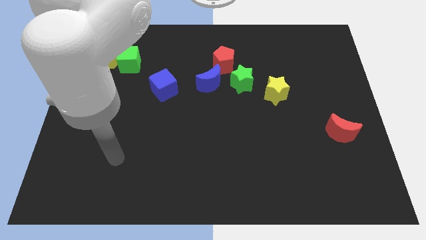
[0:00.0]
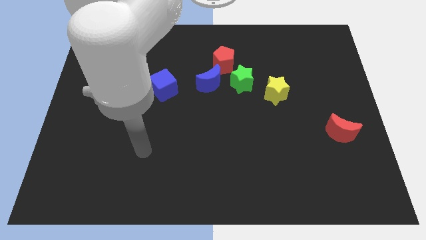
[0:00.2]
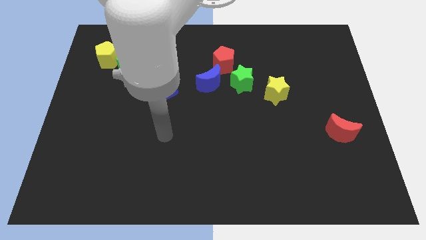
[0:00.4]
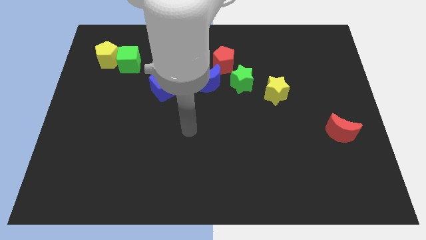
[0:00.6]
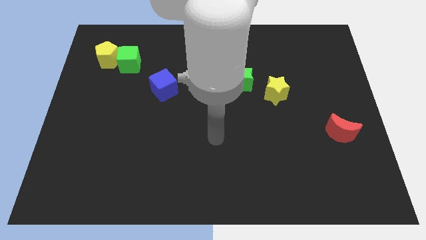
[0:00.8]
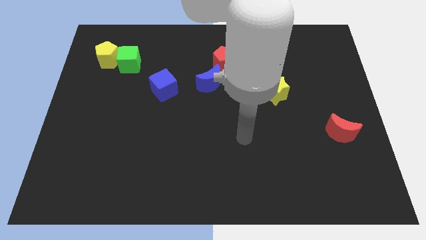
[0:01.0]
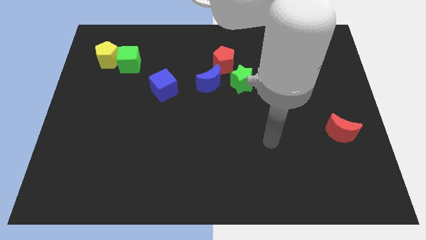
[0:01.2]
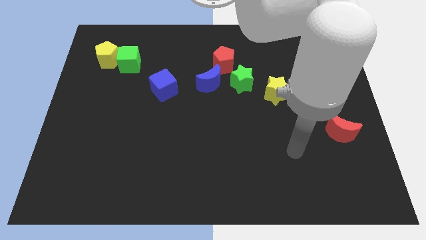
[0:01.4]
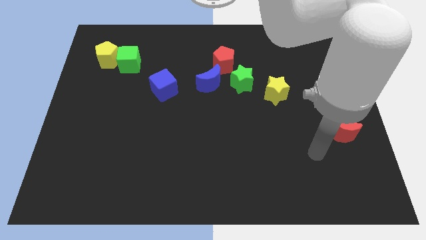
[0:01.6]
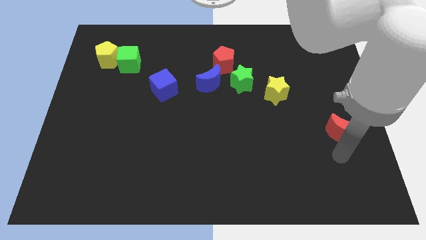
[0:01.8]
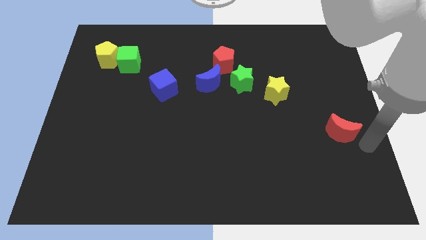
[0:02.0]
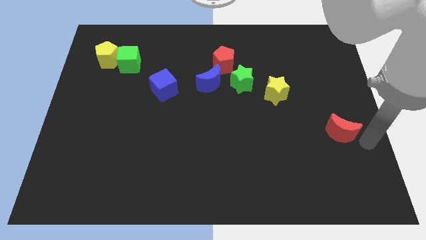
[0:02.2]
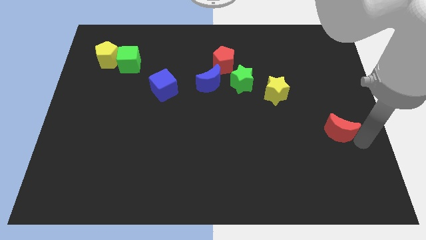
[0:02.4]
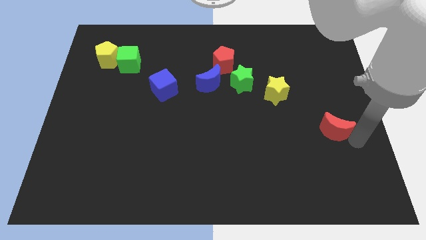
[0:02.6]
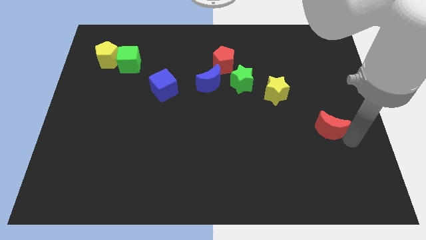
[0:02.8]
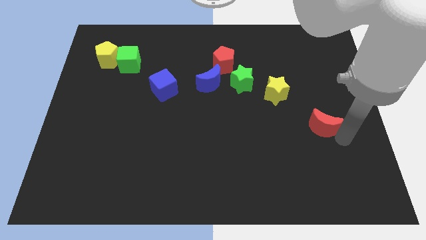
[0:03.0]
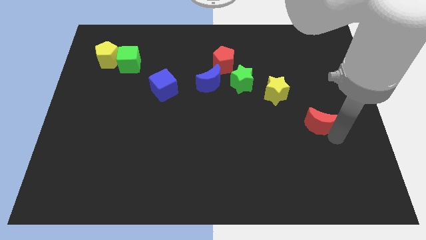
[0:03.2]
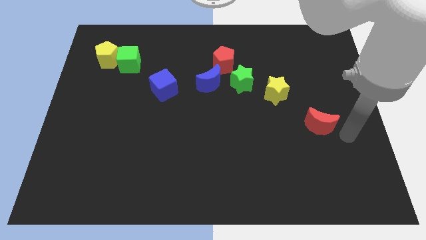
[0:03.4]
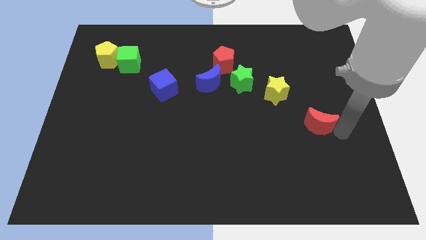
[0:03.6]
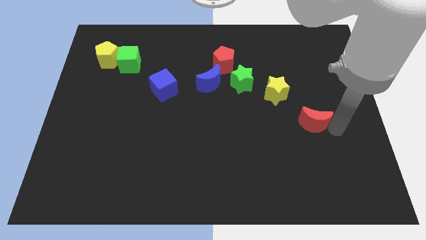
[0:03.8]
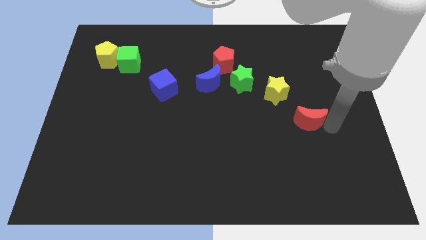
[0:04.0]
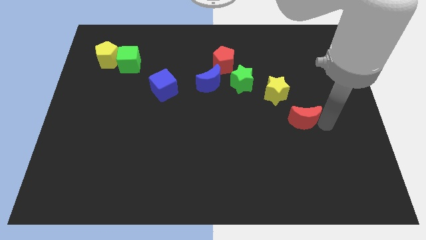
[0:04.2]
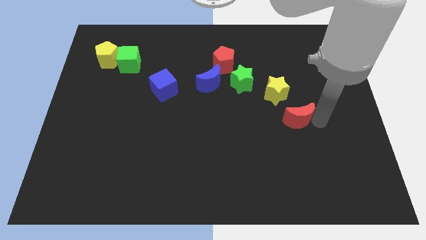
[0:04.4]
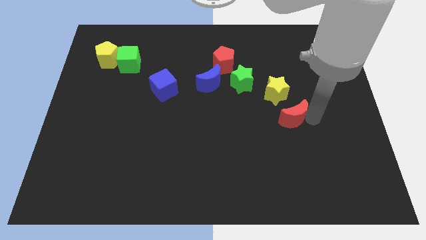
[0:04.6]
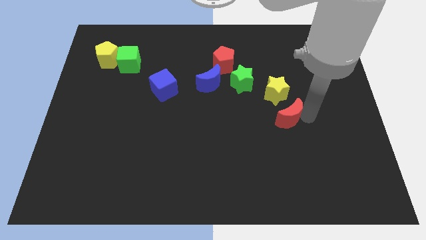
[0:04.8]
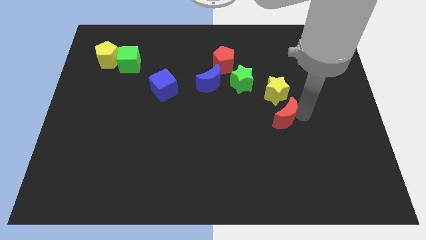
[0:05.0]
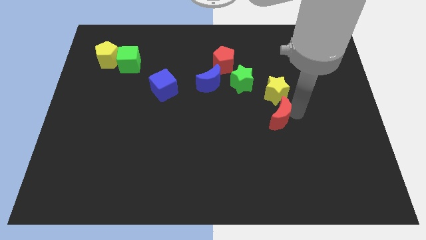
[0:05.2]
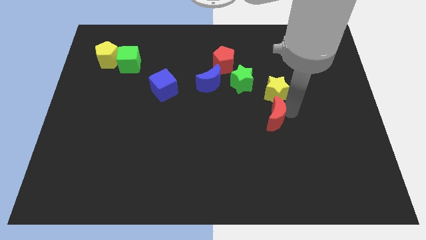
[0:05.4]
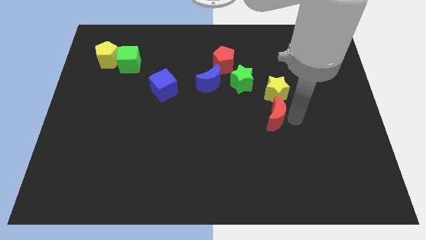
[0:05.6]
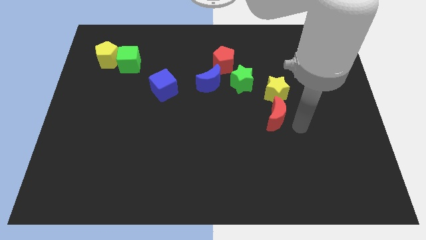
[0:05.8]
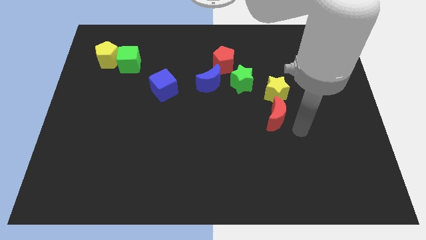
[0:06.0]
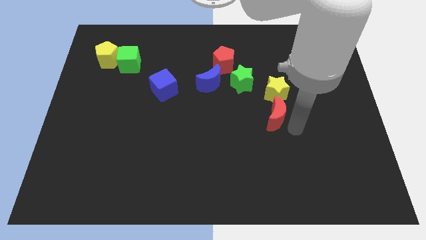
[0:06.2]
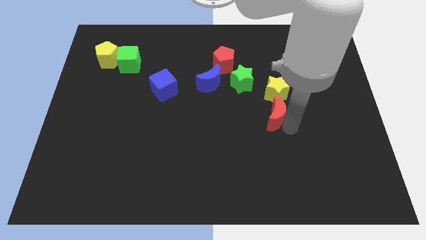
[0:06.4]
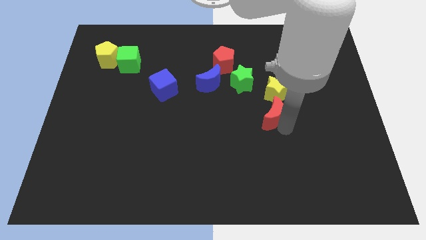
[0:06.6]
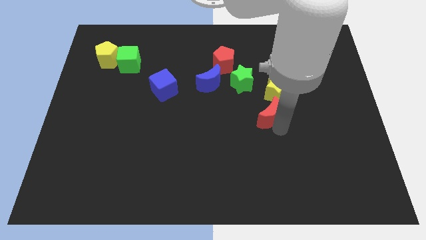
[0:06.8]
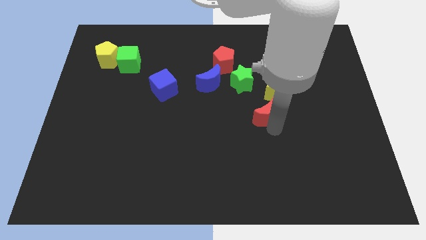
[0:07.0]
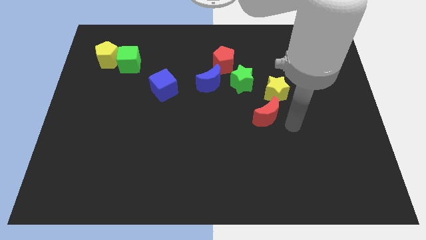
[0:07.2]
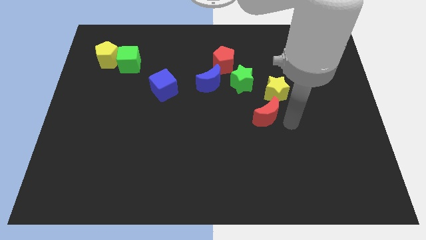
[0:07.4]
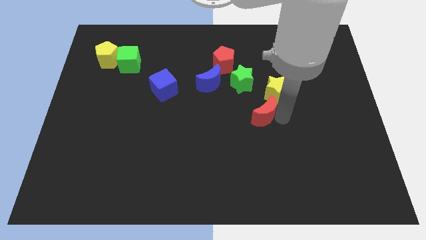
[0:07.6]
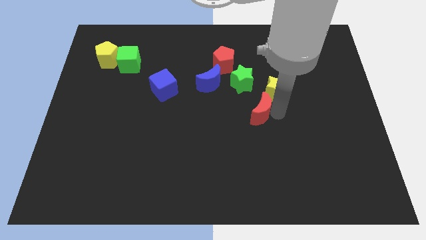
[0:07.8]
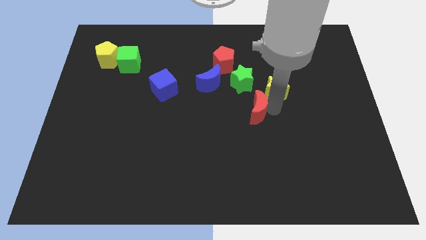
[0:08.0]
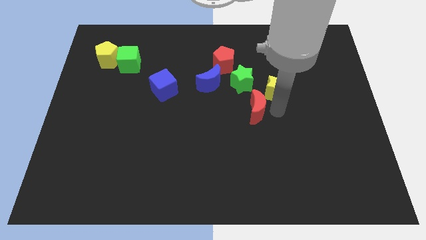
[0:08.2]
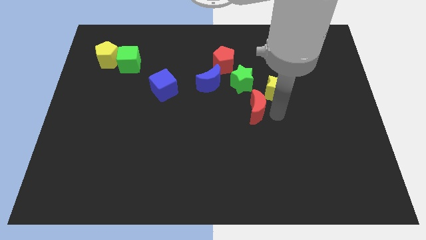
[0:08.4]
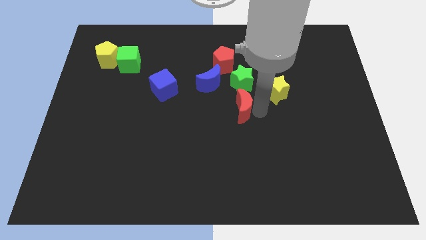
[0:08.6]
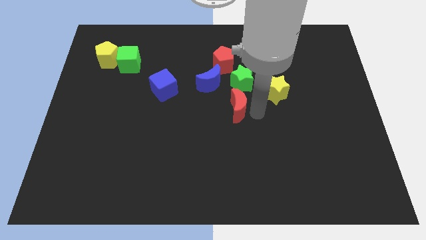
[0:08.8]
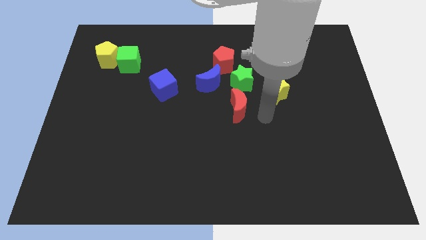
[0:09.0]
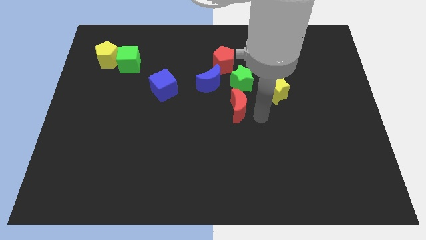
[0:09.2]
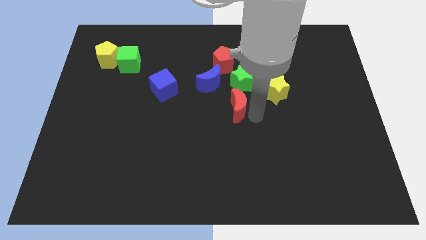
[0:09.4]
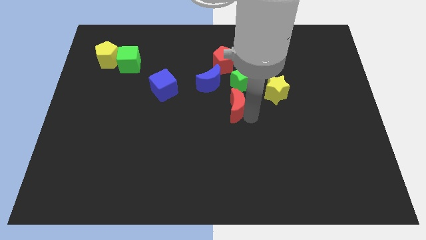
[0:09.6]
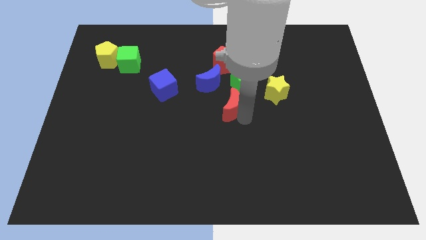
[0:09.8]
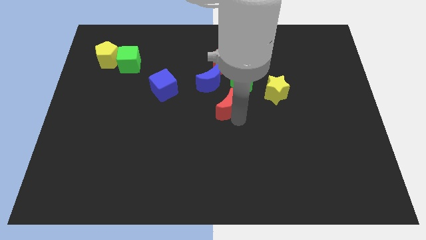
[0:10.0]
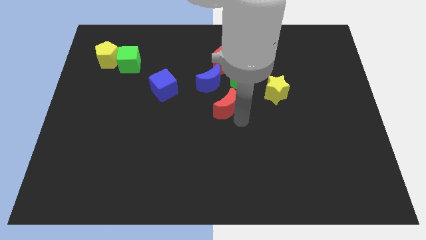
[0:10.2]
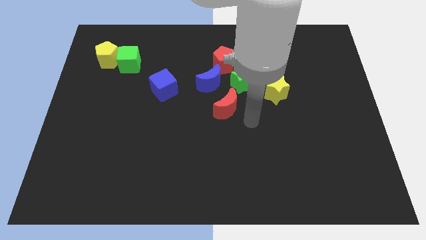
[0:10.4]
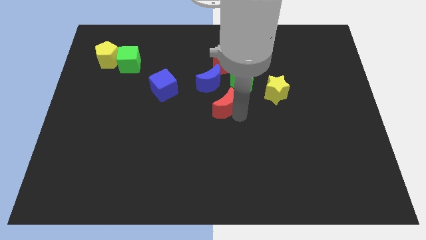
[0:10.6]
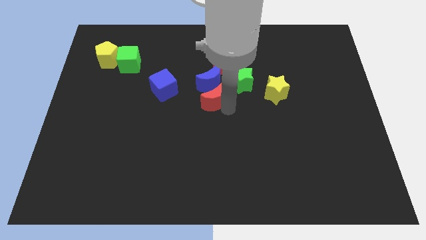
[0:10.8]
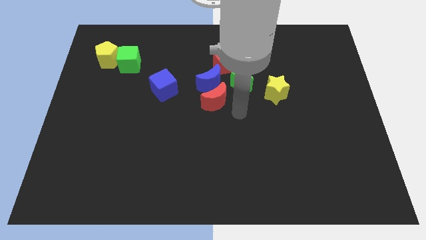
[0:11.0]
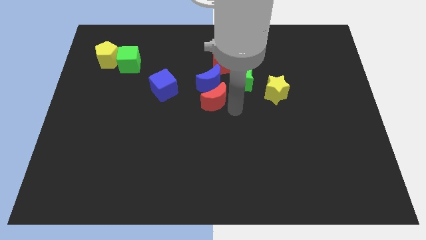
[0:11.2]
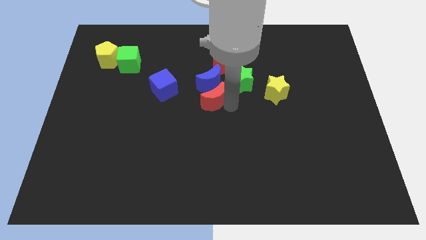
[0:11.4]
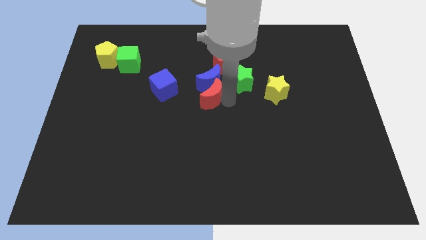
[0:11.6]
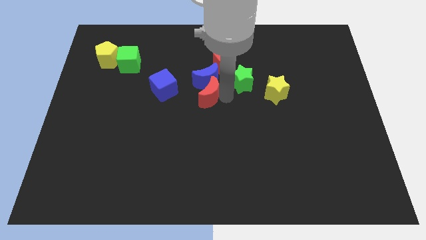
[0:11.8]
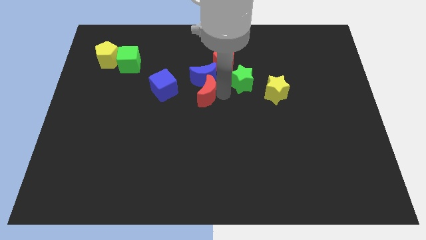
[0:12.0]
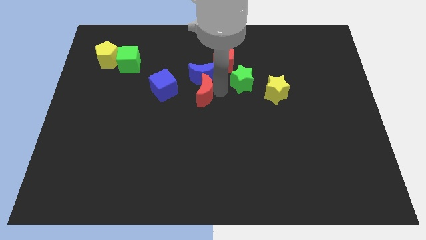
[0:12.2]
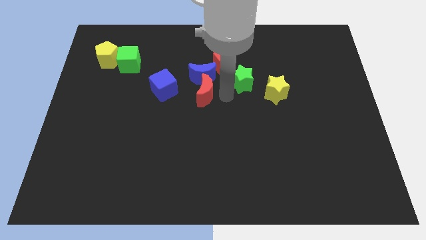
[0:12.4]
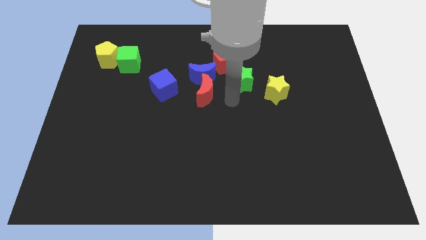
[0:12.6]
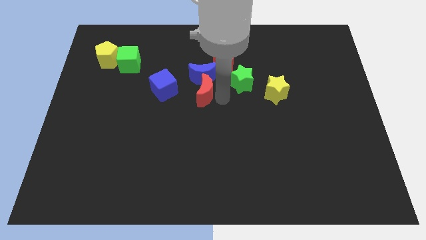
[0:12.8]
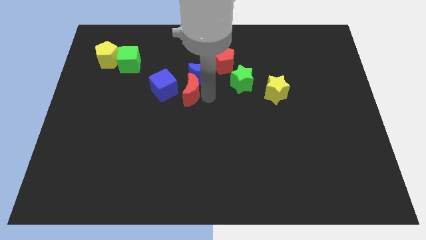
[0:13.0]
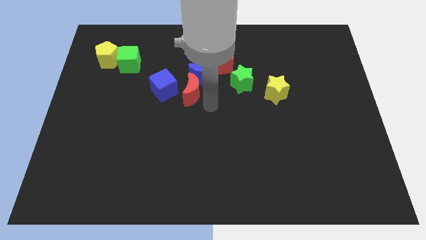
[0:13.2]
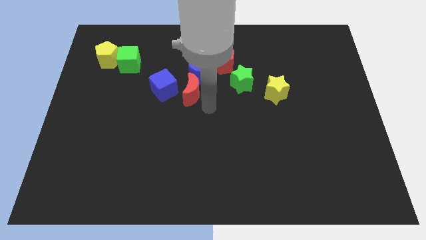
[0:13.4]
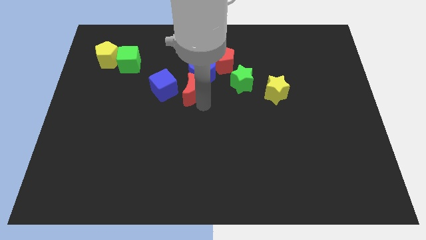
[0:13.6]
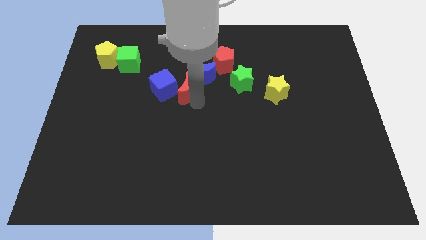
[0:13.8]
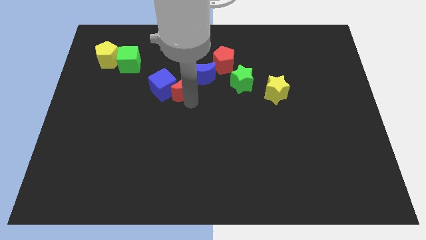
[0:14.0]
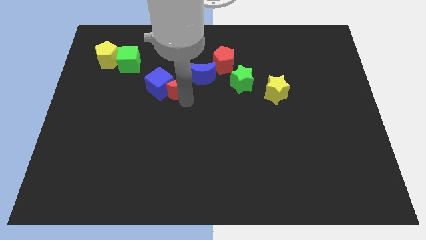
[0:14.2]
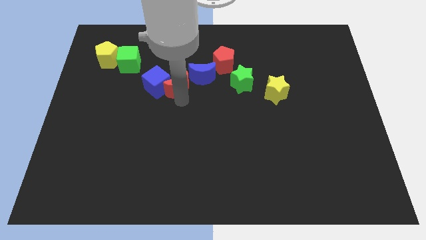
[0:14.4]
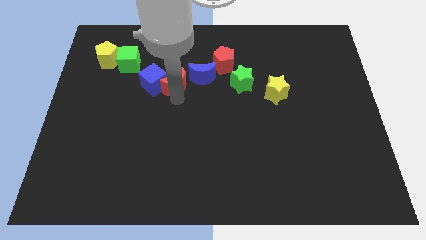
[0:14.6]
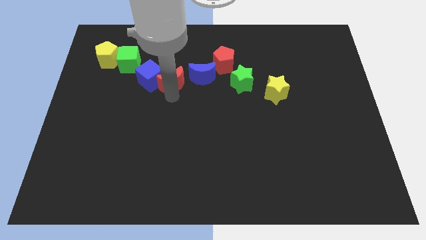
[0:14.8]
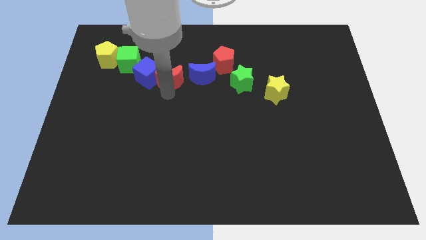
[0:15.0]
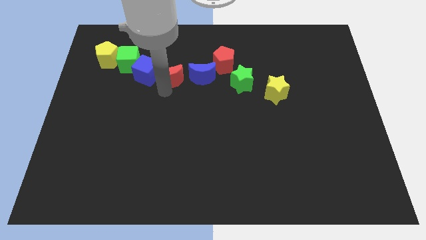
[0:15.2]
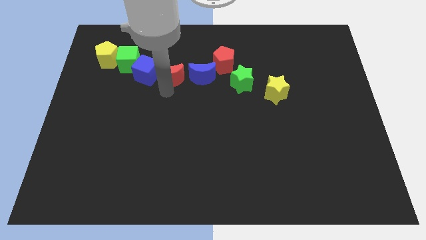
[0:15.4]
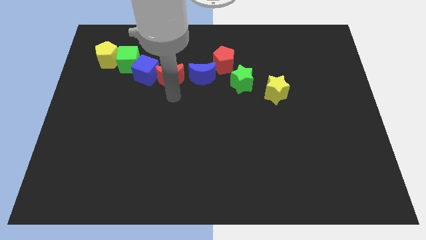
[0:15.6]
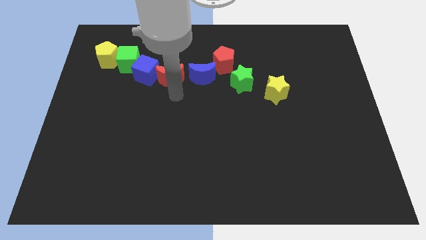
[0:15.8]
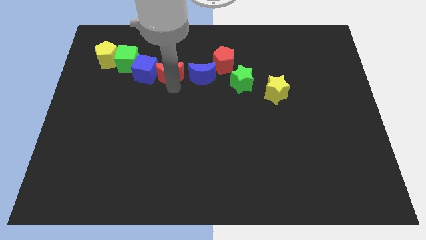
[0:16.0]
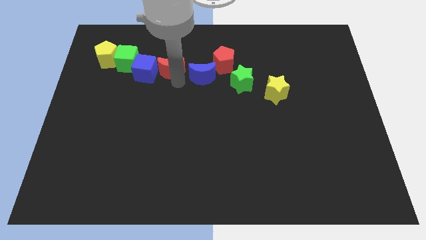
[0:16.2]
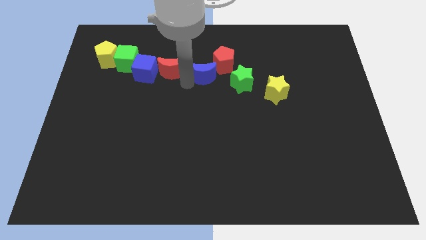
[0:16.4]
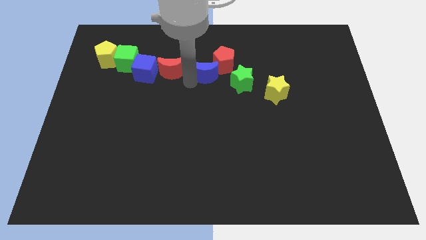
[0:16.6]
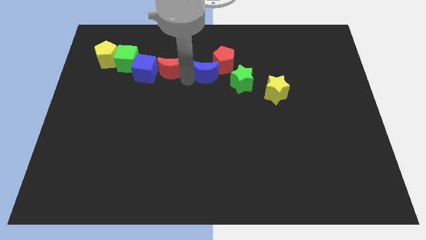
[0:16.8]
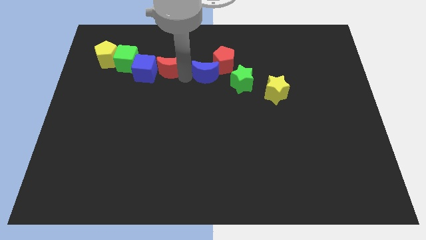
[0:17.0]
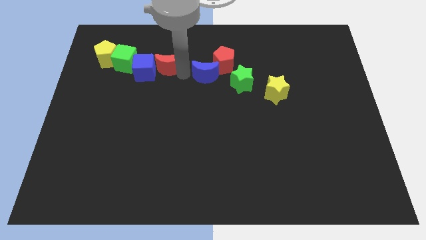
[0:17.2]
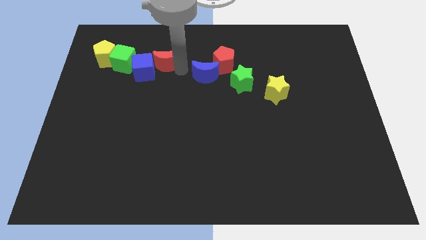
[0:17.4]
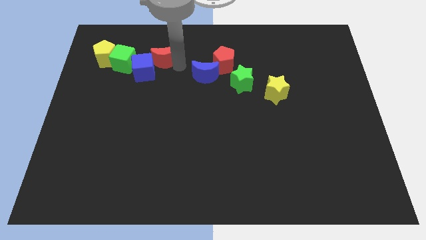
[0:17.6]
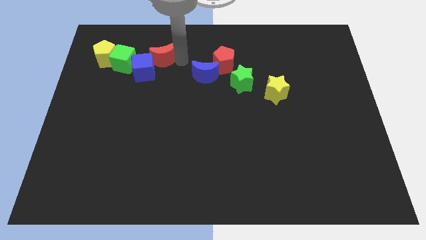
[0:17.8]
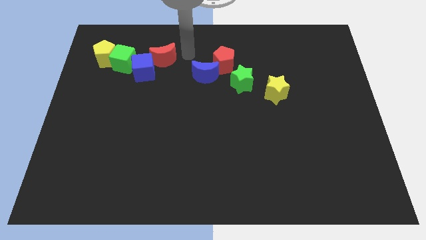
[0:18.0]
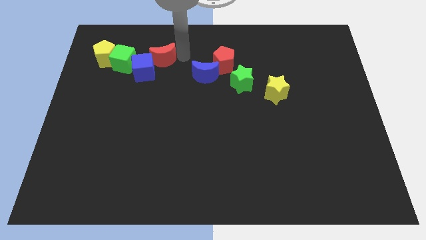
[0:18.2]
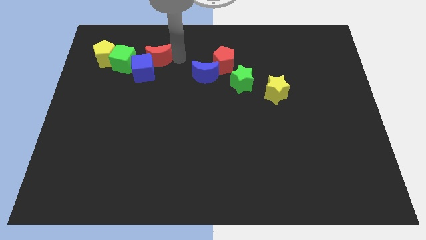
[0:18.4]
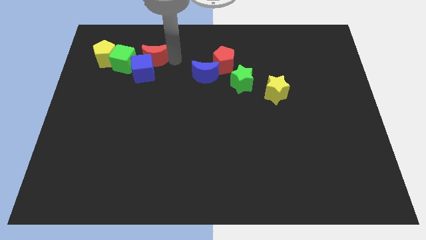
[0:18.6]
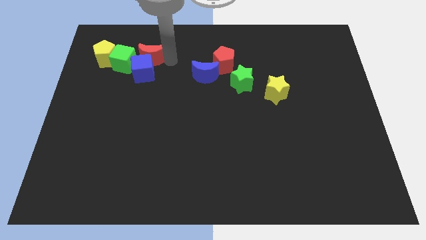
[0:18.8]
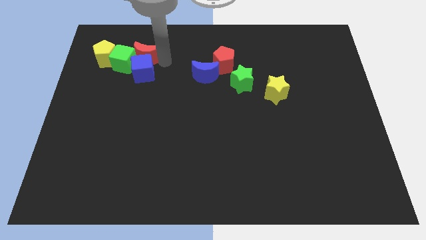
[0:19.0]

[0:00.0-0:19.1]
slide the red moon to the green cube
